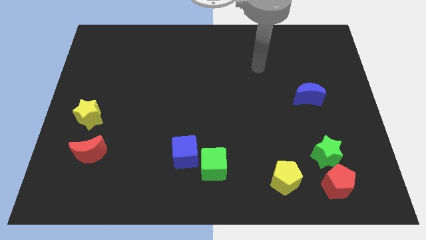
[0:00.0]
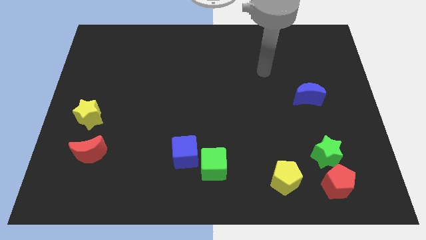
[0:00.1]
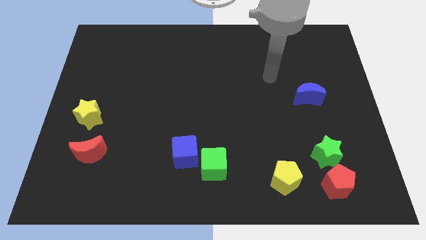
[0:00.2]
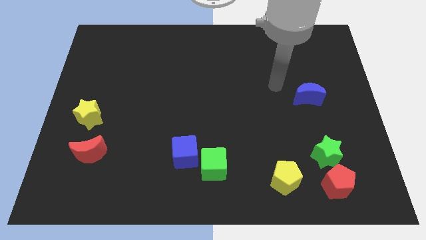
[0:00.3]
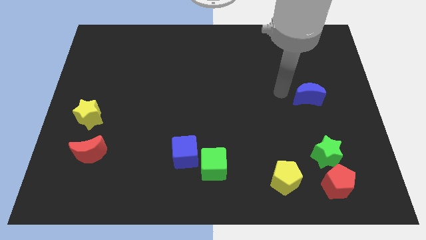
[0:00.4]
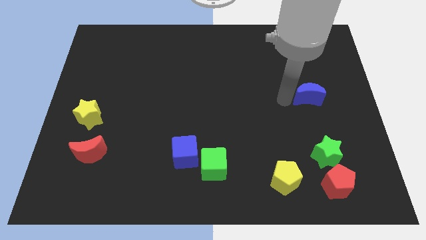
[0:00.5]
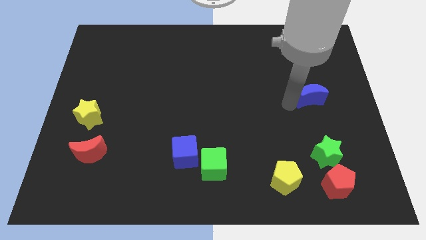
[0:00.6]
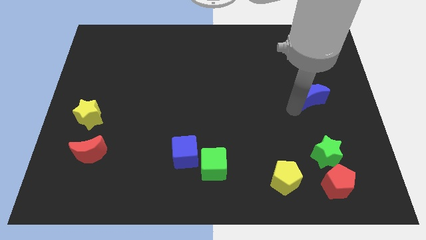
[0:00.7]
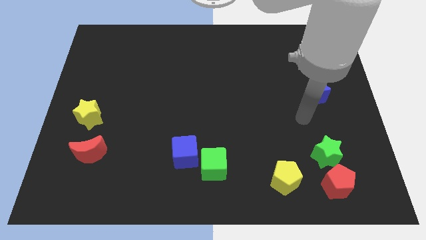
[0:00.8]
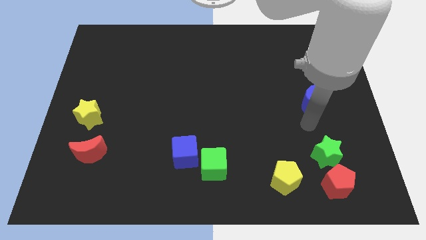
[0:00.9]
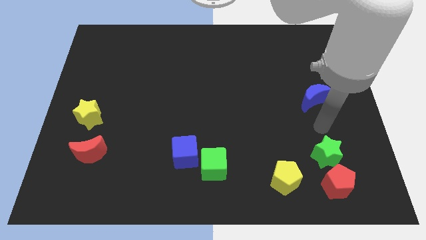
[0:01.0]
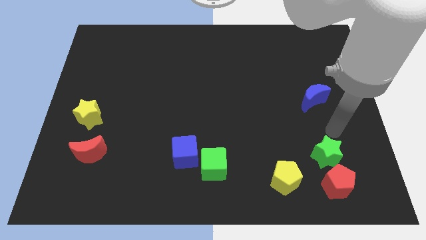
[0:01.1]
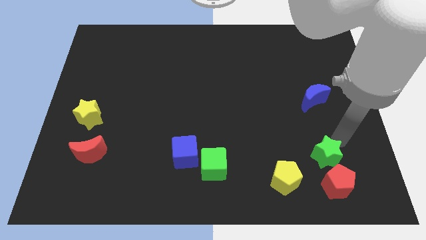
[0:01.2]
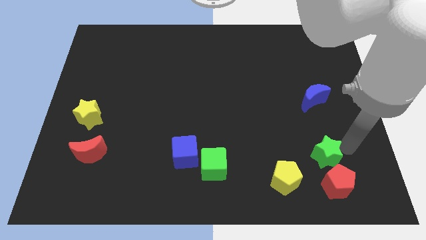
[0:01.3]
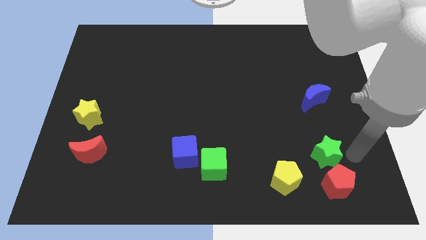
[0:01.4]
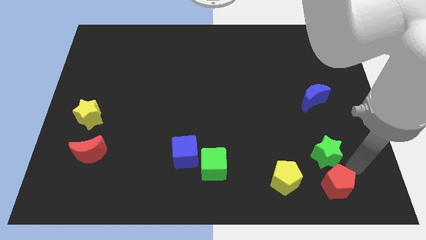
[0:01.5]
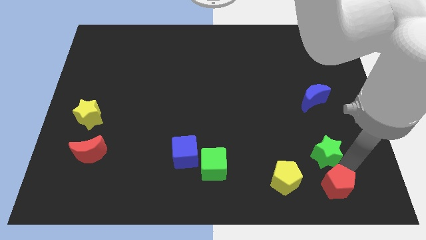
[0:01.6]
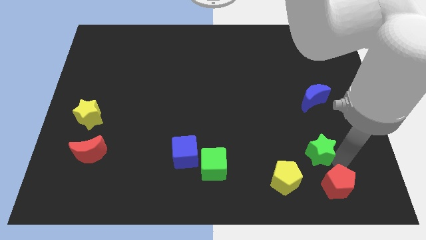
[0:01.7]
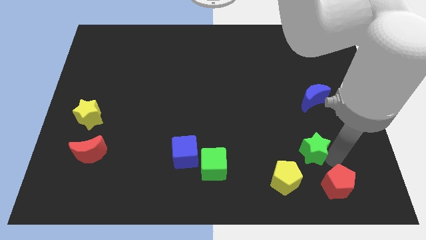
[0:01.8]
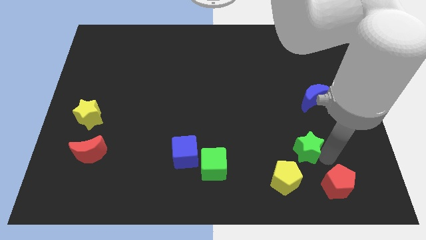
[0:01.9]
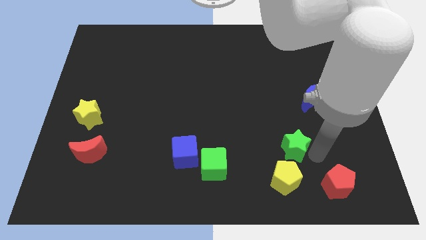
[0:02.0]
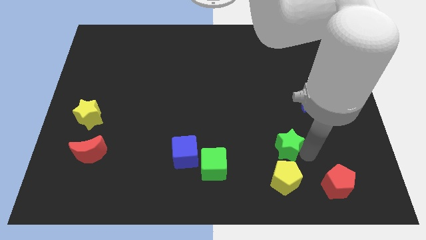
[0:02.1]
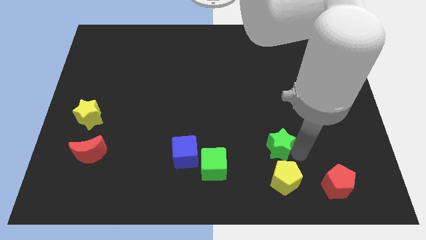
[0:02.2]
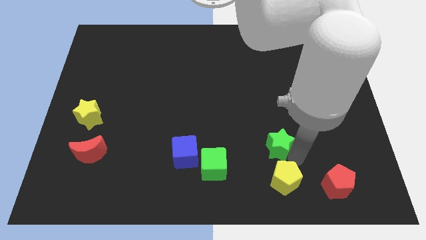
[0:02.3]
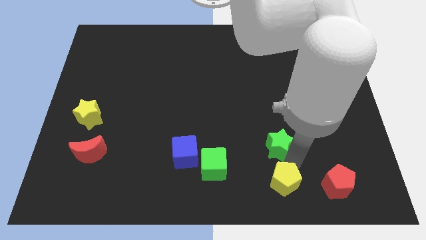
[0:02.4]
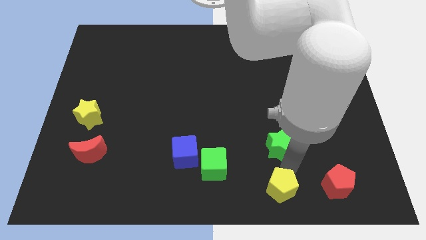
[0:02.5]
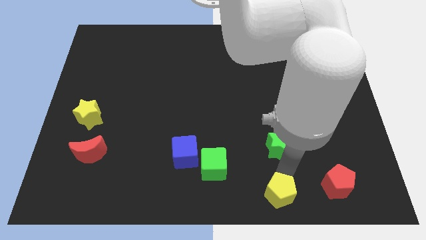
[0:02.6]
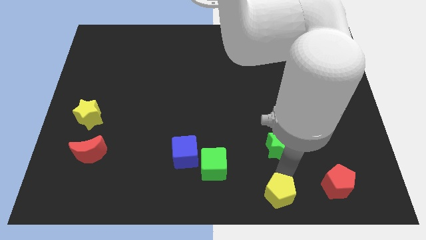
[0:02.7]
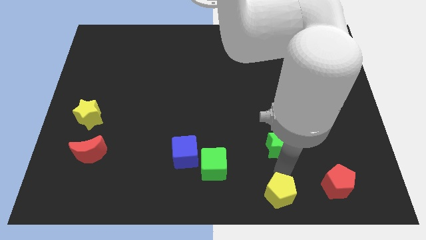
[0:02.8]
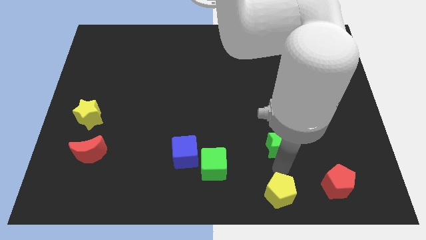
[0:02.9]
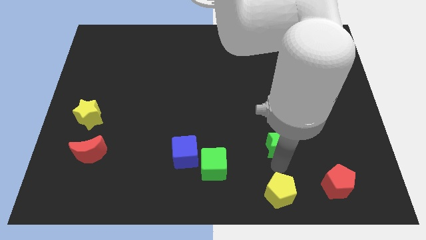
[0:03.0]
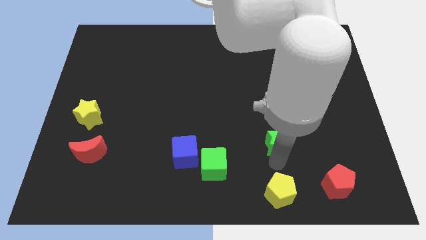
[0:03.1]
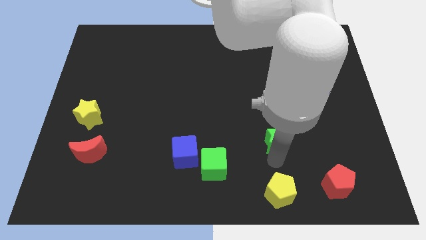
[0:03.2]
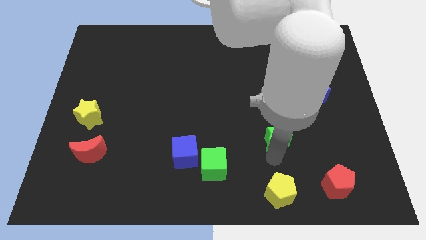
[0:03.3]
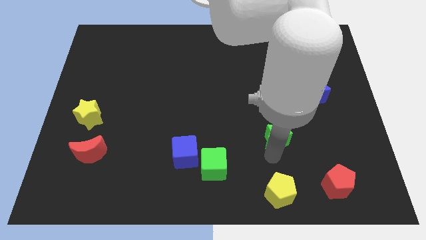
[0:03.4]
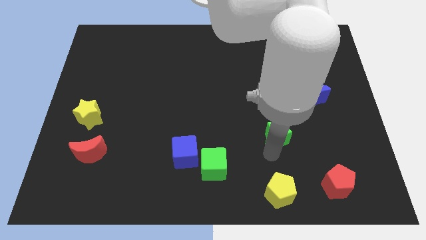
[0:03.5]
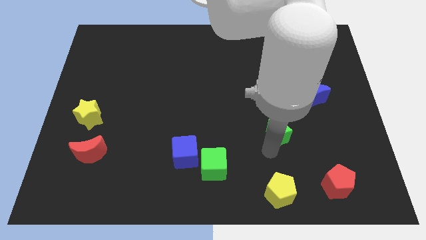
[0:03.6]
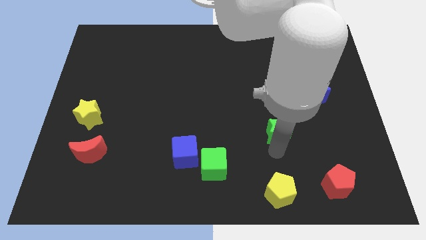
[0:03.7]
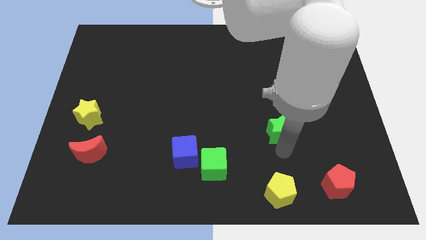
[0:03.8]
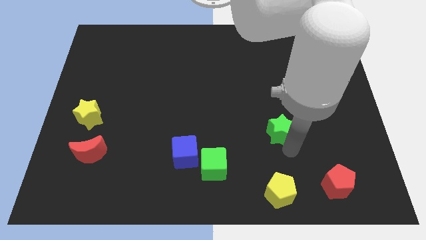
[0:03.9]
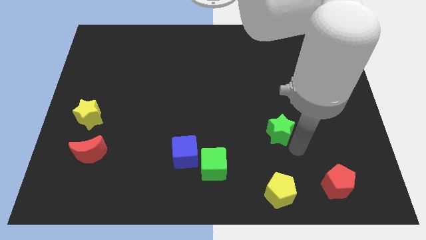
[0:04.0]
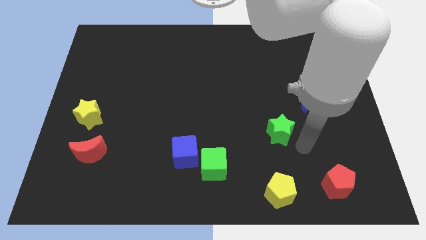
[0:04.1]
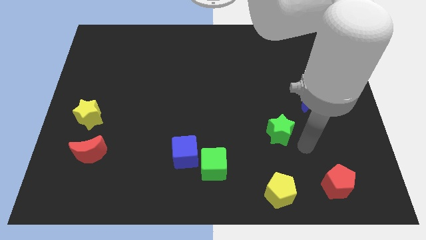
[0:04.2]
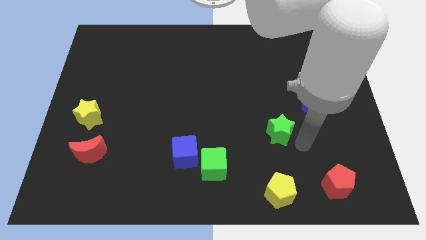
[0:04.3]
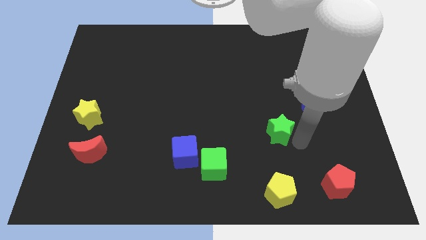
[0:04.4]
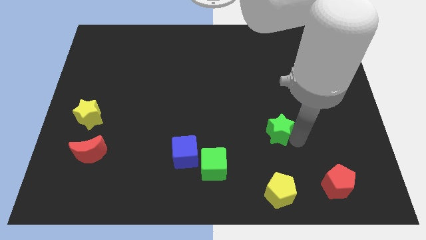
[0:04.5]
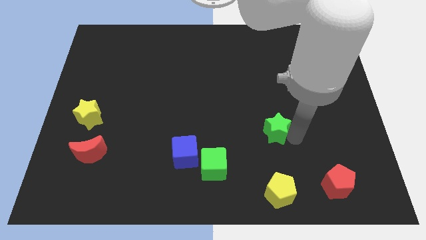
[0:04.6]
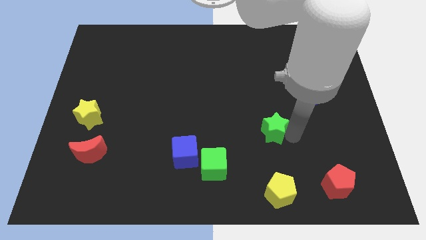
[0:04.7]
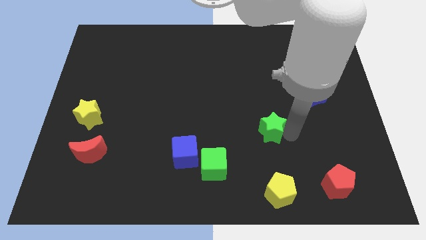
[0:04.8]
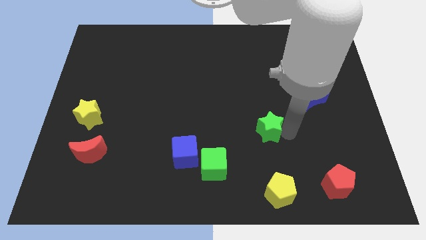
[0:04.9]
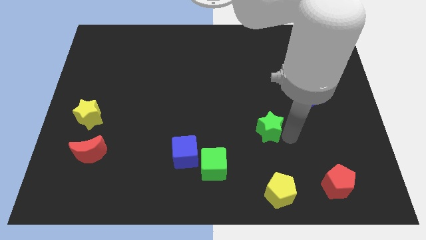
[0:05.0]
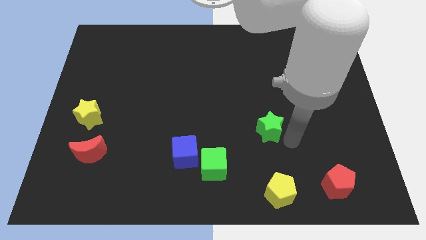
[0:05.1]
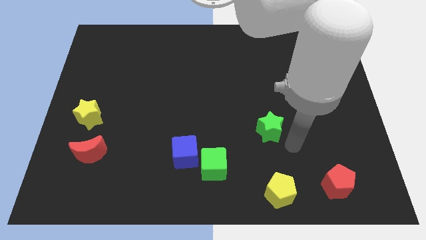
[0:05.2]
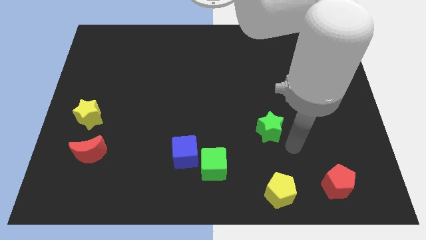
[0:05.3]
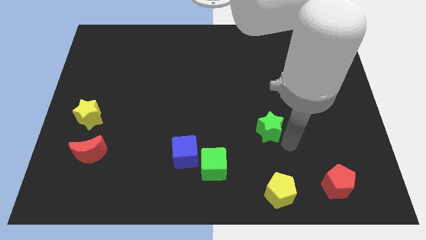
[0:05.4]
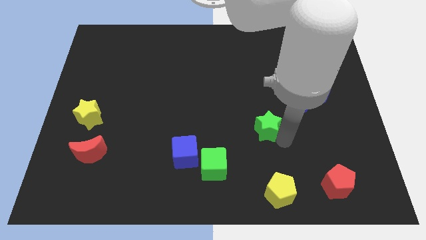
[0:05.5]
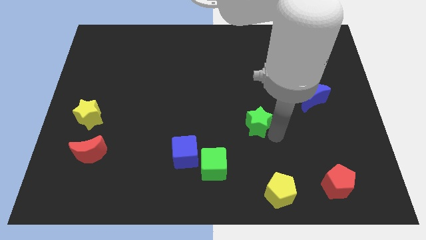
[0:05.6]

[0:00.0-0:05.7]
move the green star to the center

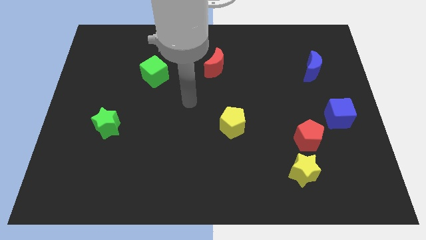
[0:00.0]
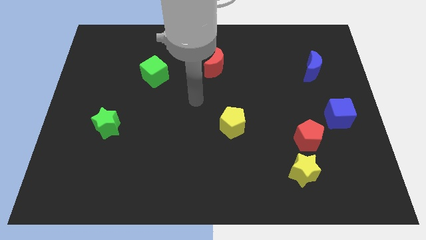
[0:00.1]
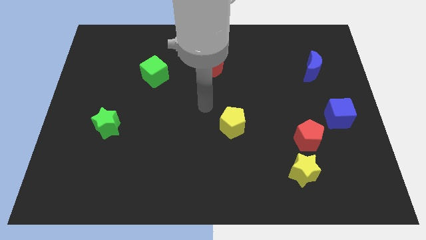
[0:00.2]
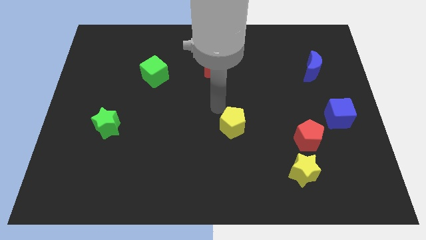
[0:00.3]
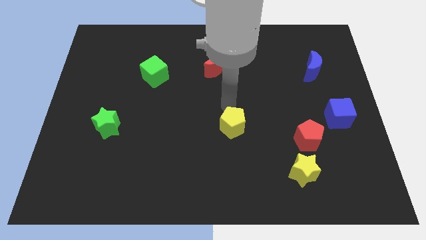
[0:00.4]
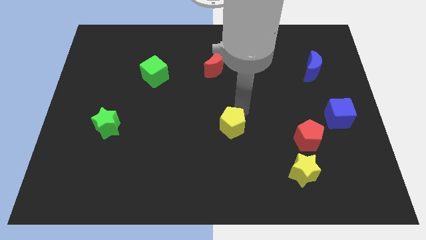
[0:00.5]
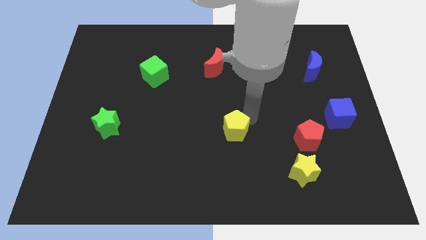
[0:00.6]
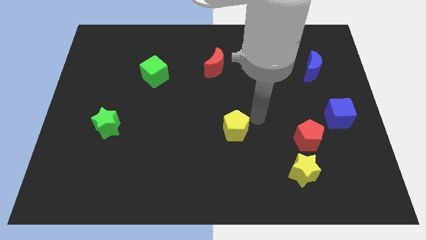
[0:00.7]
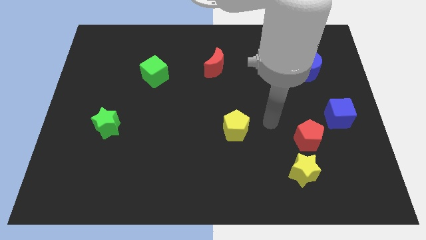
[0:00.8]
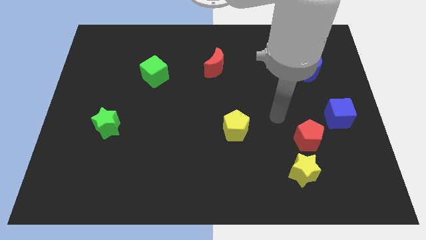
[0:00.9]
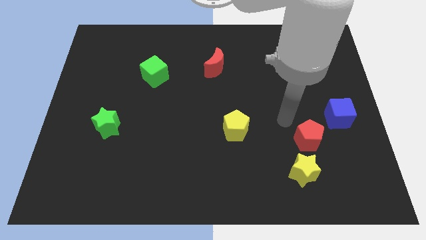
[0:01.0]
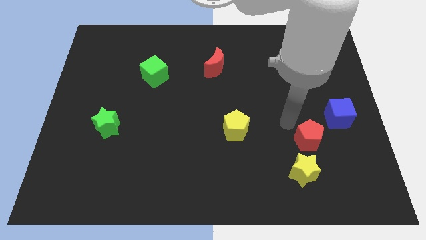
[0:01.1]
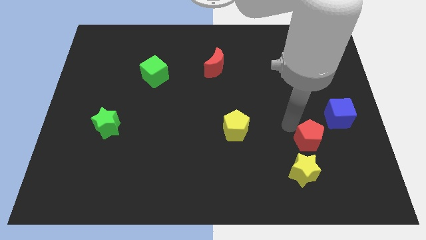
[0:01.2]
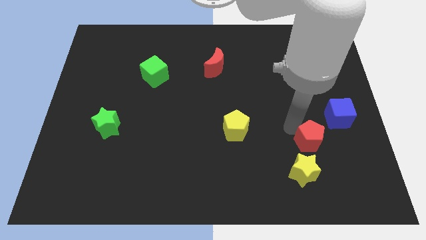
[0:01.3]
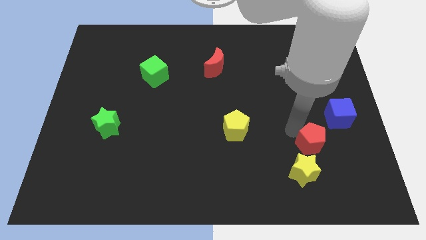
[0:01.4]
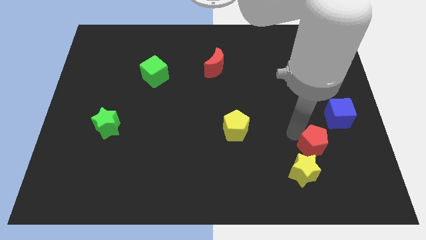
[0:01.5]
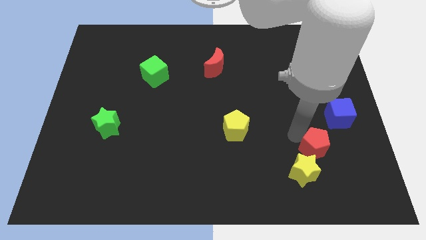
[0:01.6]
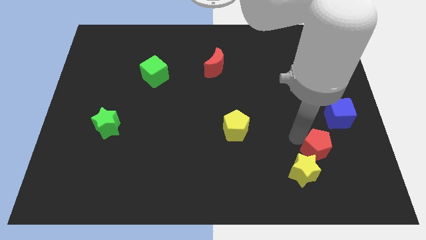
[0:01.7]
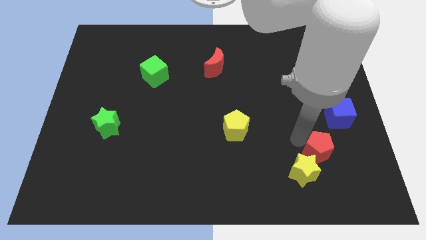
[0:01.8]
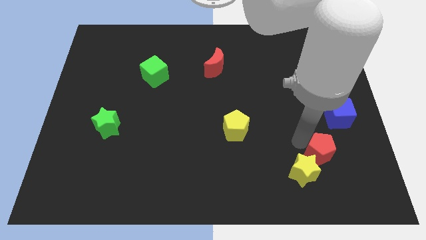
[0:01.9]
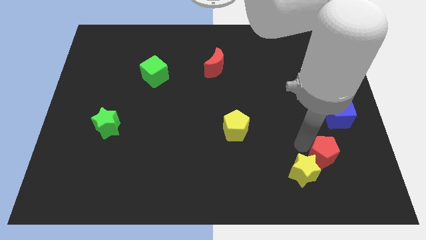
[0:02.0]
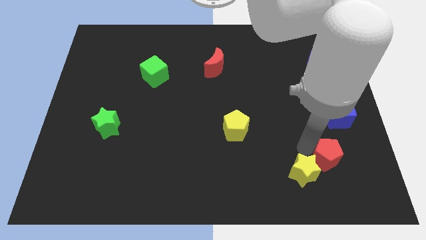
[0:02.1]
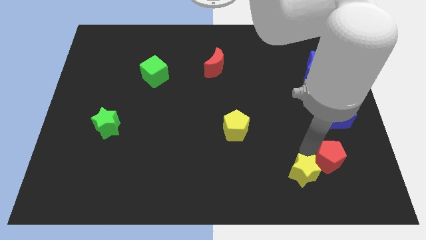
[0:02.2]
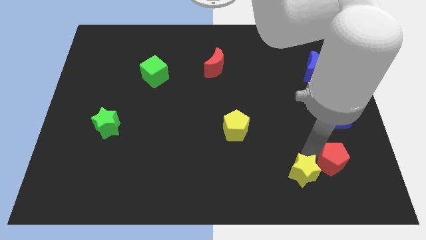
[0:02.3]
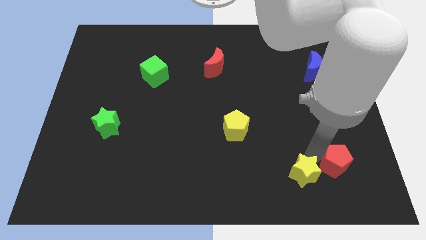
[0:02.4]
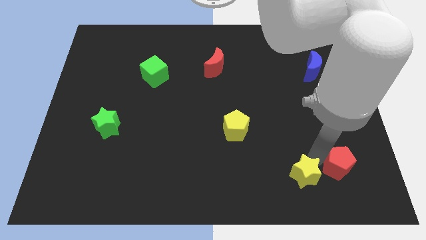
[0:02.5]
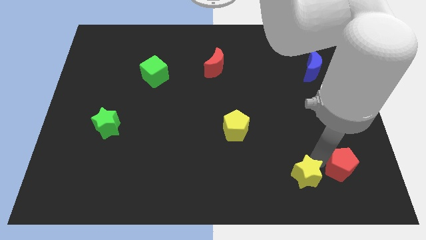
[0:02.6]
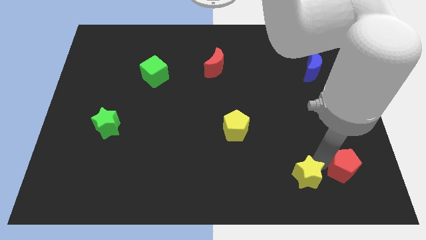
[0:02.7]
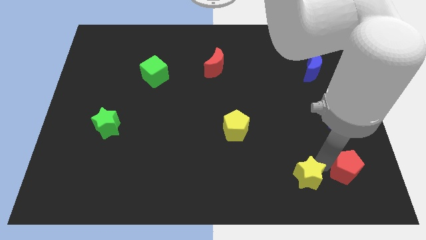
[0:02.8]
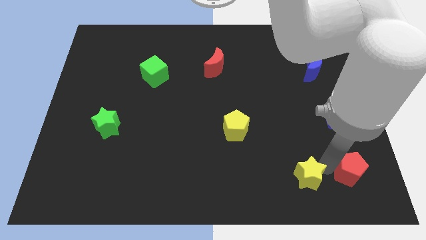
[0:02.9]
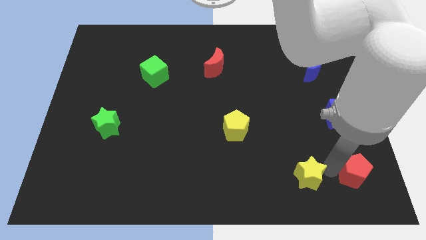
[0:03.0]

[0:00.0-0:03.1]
move the red pentagon to the bottom right
